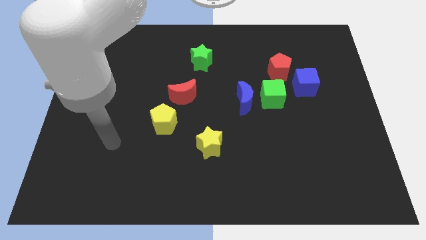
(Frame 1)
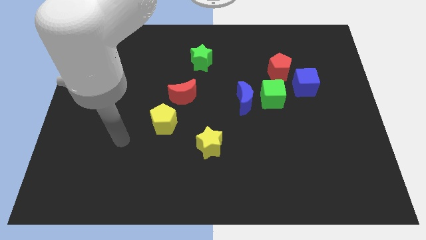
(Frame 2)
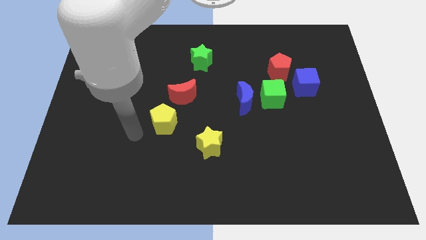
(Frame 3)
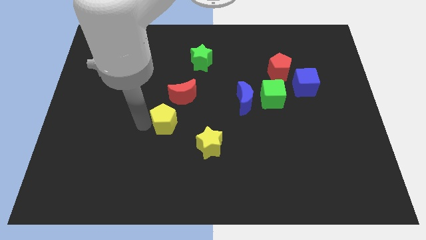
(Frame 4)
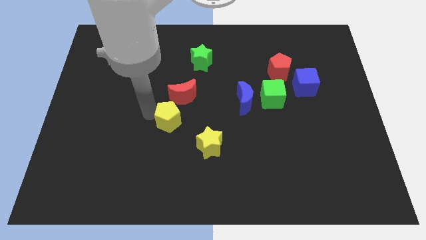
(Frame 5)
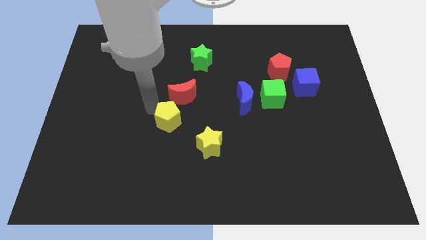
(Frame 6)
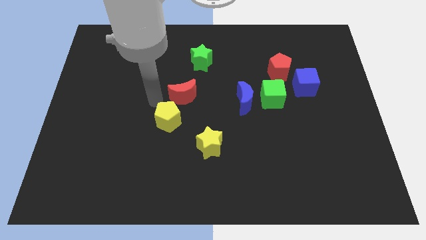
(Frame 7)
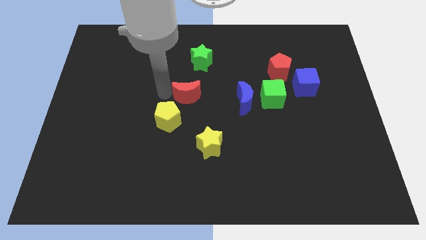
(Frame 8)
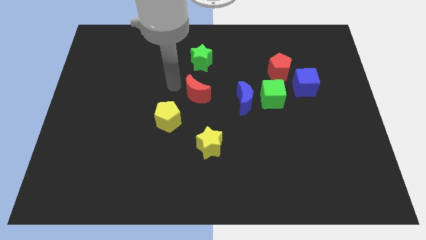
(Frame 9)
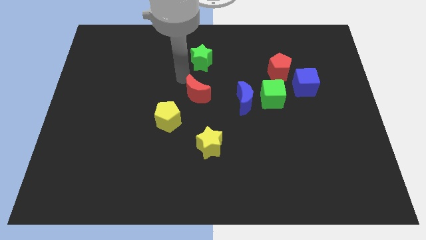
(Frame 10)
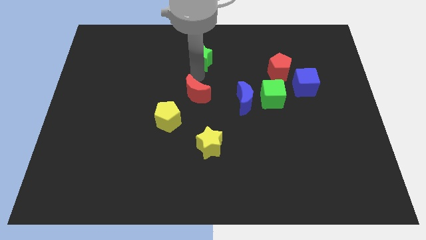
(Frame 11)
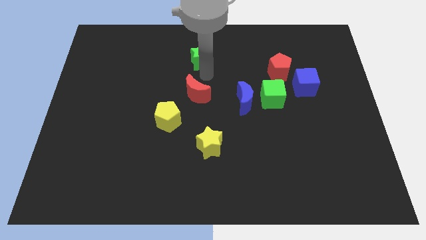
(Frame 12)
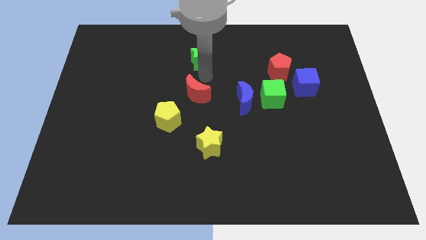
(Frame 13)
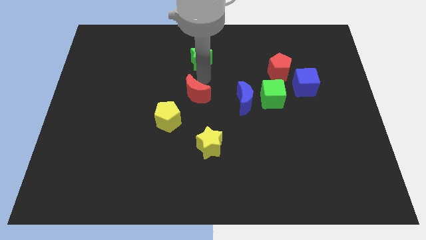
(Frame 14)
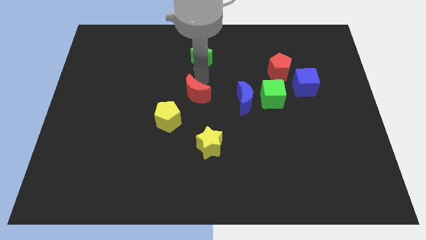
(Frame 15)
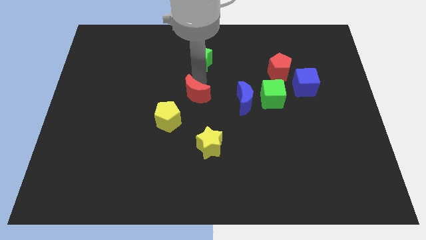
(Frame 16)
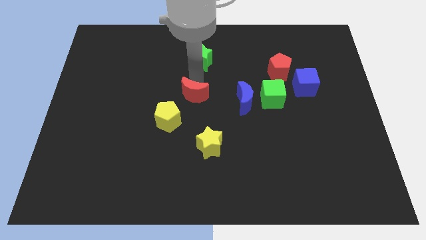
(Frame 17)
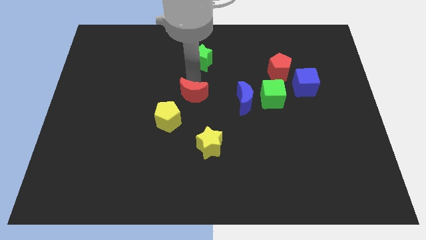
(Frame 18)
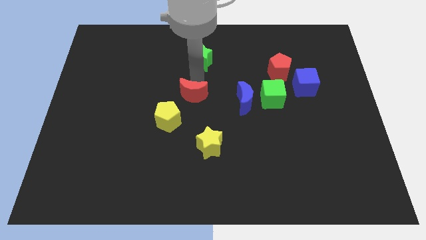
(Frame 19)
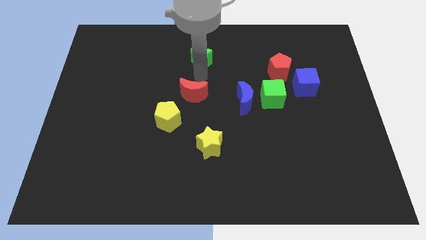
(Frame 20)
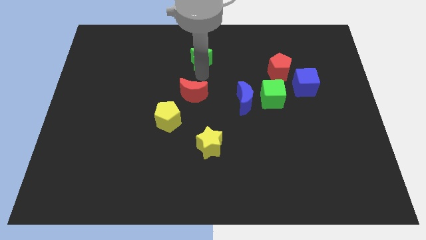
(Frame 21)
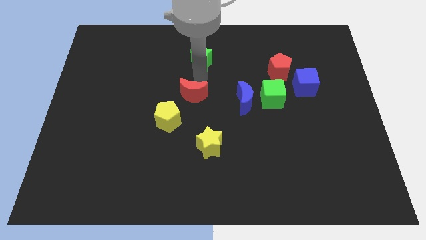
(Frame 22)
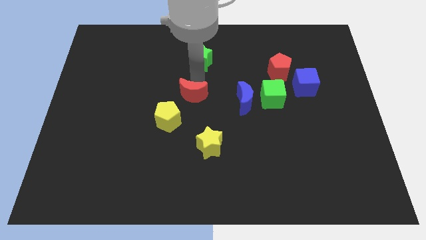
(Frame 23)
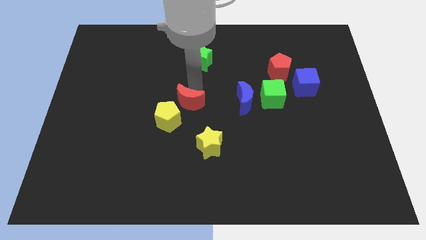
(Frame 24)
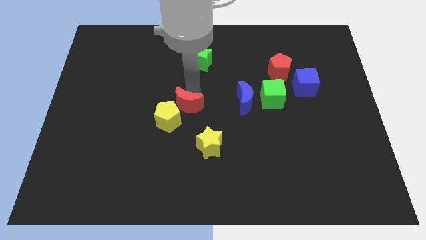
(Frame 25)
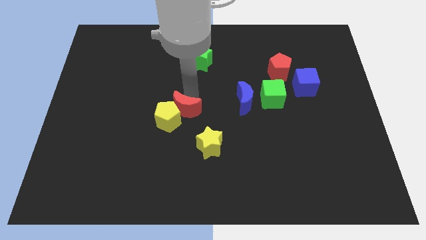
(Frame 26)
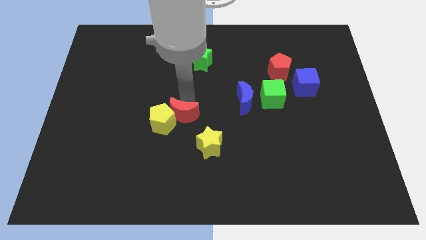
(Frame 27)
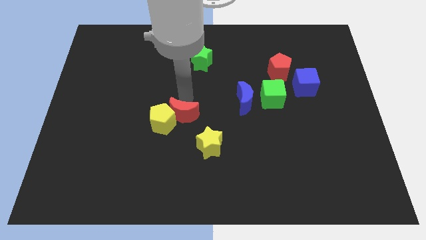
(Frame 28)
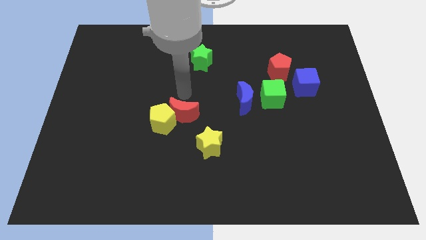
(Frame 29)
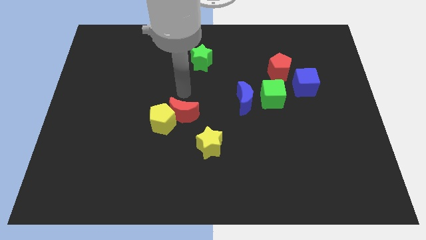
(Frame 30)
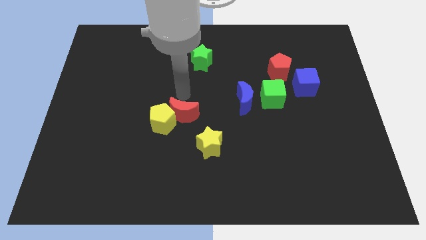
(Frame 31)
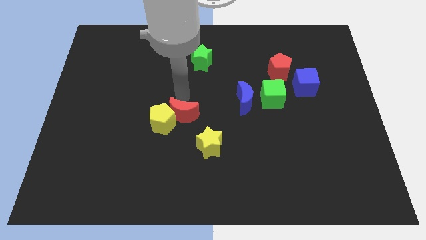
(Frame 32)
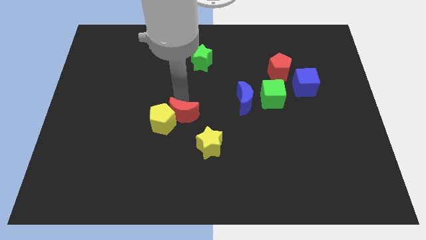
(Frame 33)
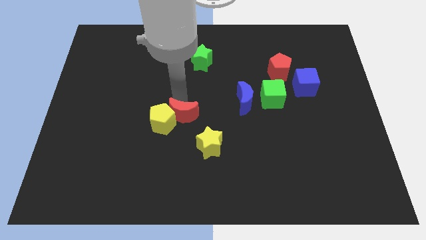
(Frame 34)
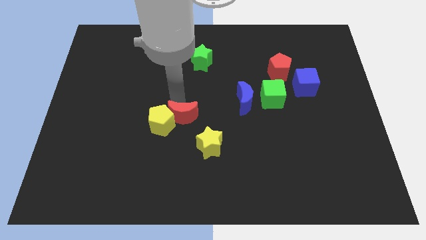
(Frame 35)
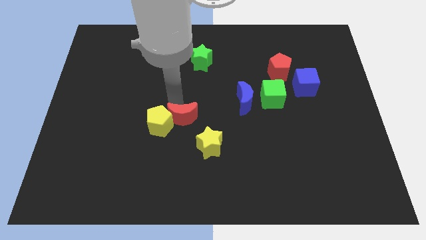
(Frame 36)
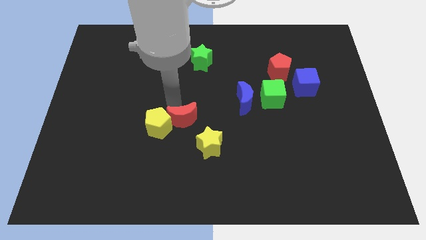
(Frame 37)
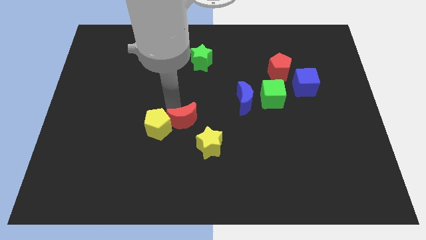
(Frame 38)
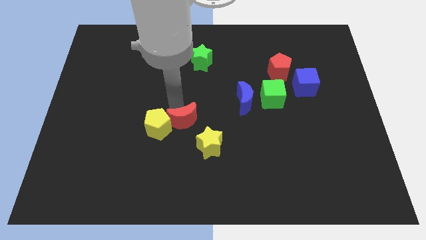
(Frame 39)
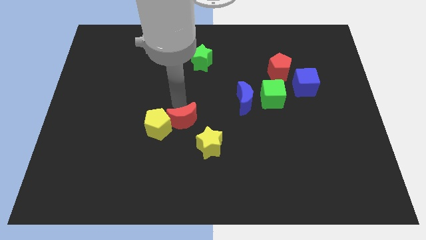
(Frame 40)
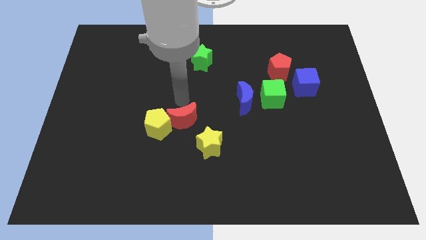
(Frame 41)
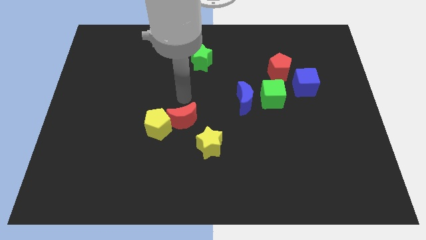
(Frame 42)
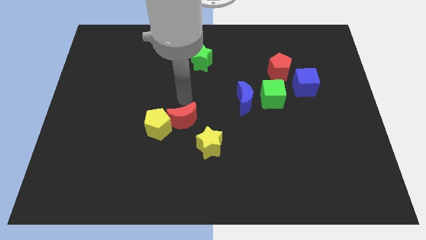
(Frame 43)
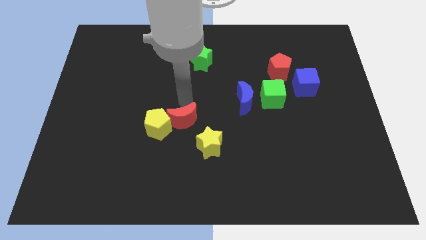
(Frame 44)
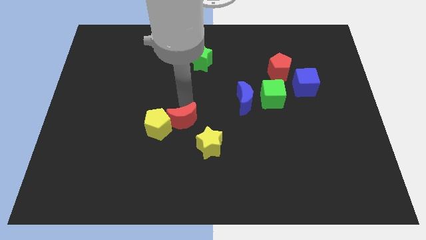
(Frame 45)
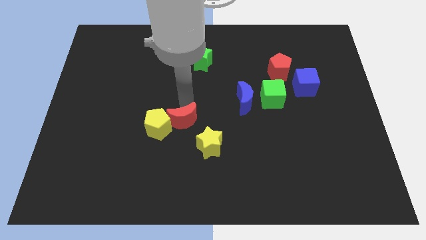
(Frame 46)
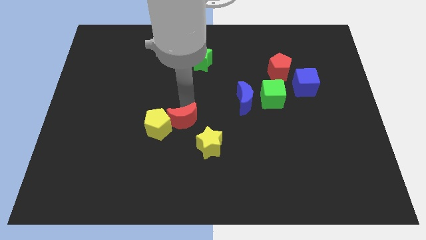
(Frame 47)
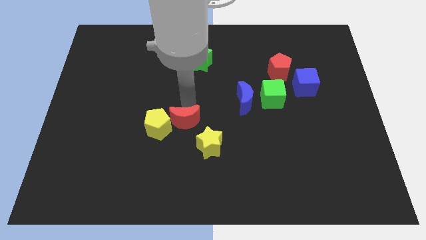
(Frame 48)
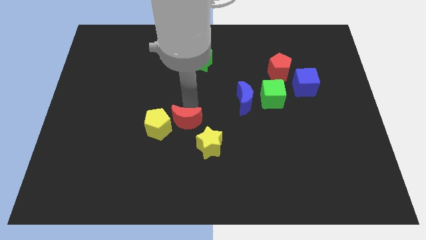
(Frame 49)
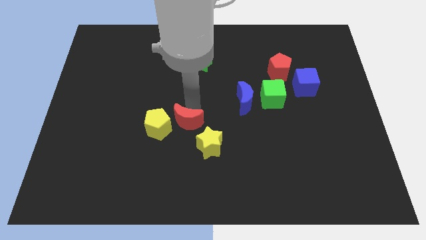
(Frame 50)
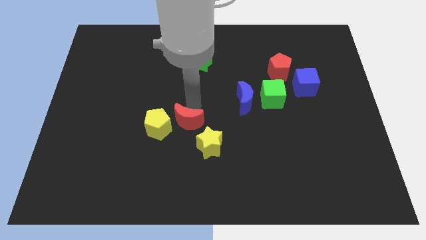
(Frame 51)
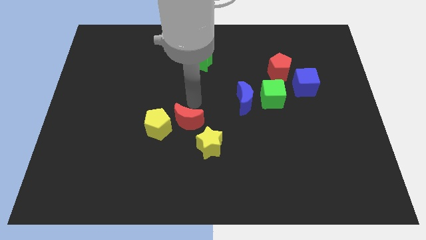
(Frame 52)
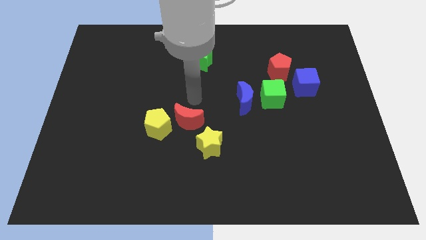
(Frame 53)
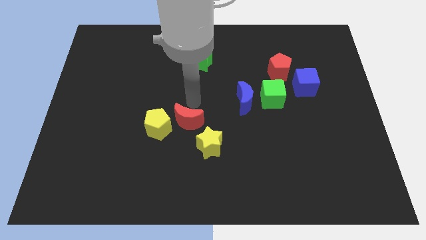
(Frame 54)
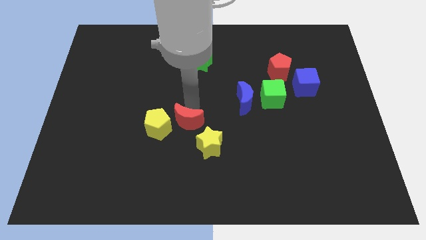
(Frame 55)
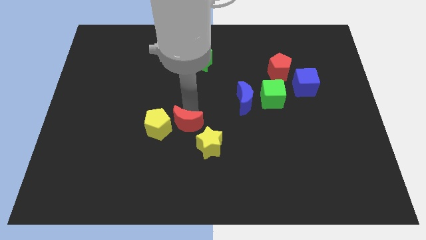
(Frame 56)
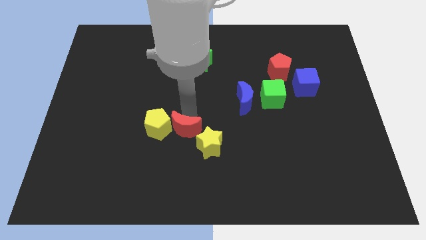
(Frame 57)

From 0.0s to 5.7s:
move the red moon just left of the yellow star

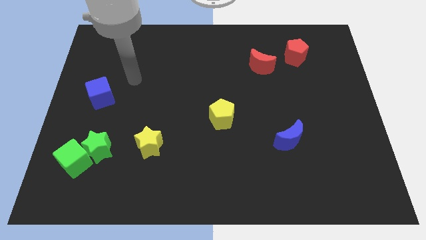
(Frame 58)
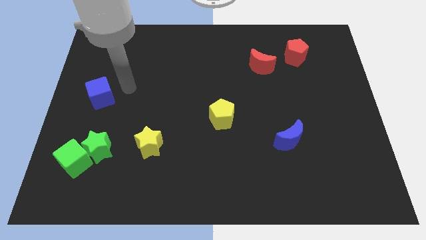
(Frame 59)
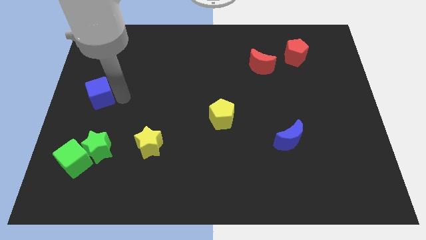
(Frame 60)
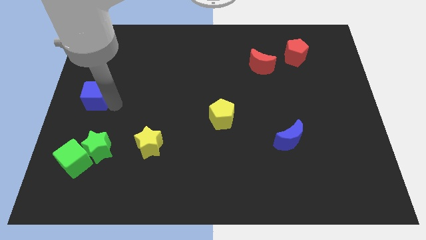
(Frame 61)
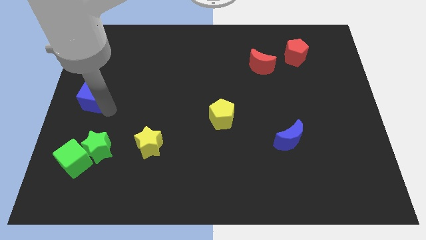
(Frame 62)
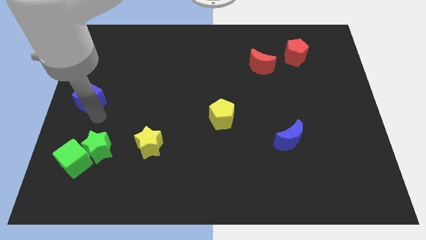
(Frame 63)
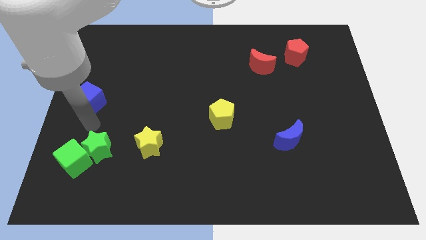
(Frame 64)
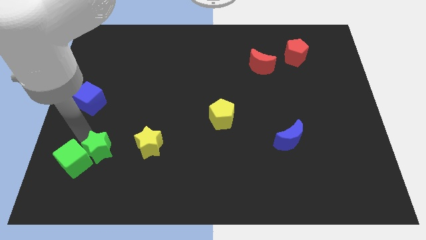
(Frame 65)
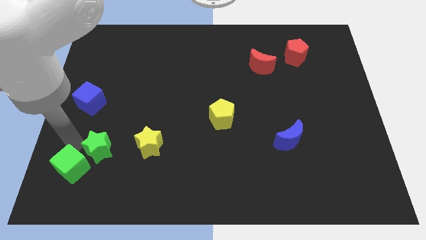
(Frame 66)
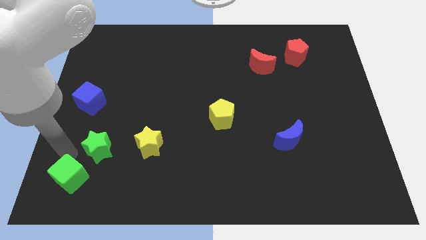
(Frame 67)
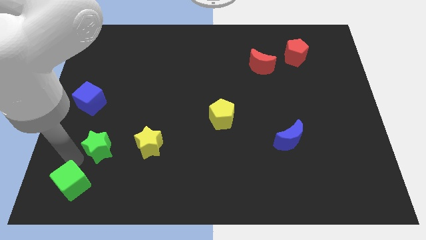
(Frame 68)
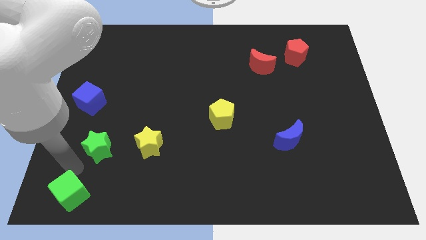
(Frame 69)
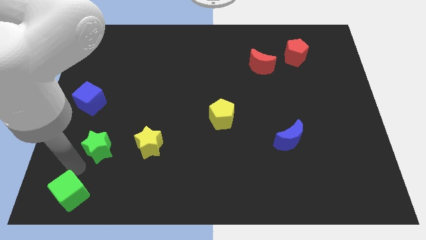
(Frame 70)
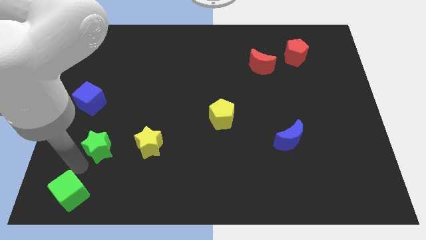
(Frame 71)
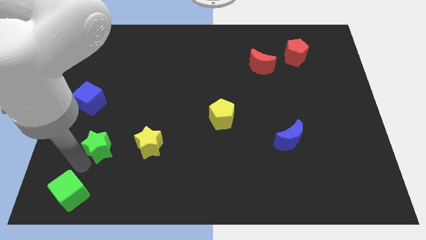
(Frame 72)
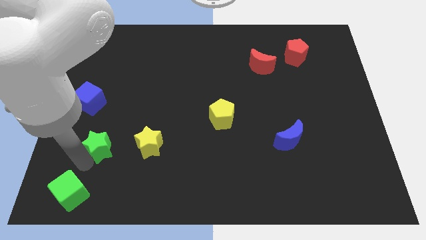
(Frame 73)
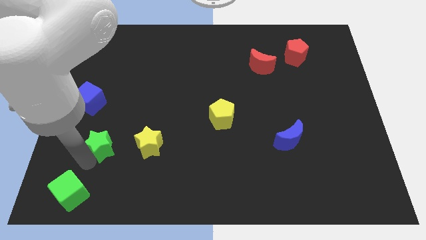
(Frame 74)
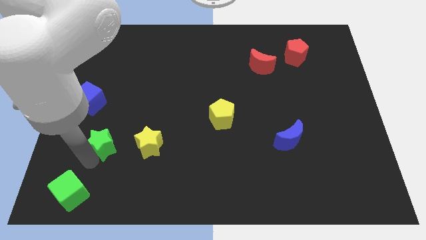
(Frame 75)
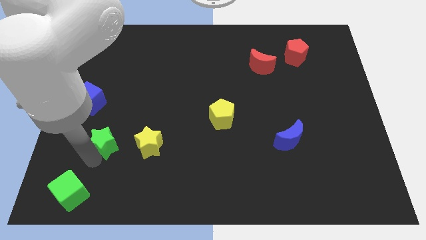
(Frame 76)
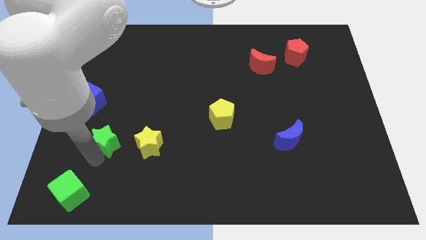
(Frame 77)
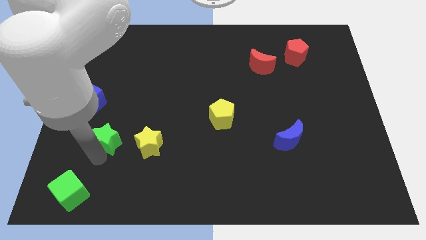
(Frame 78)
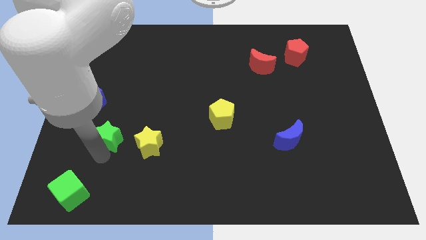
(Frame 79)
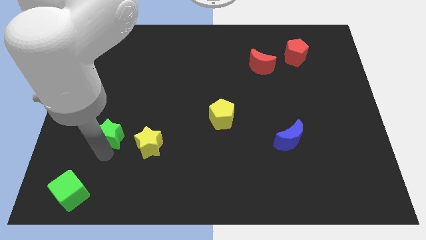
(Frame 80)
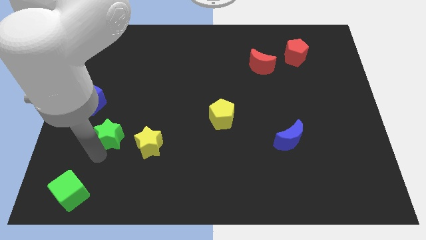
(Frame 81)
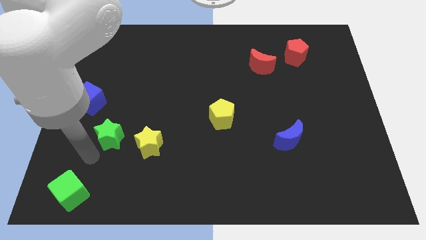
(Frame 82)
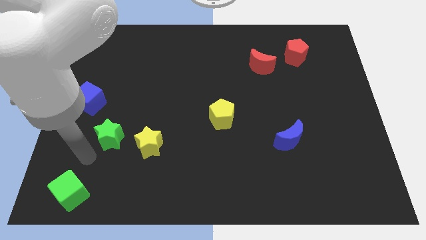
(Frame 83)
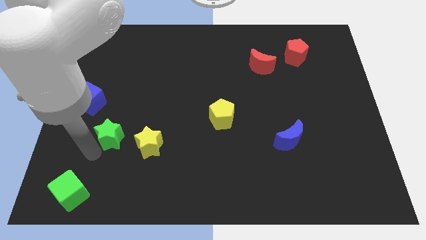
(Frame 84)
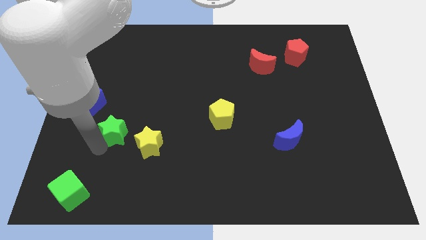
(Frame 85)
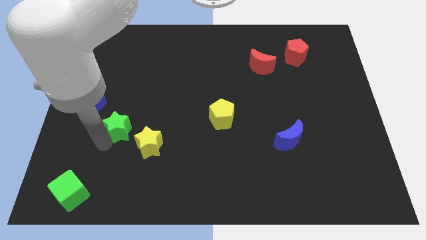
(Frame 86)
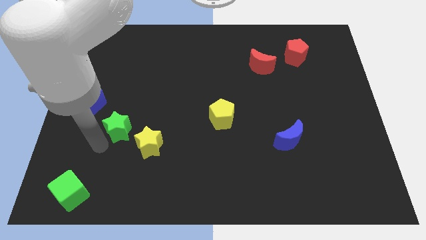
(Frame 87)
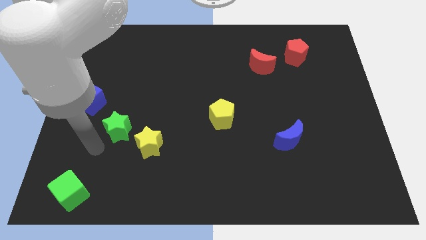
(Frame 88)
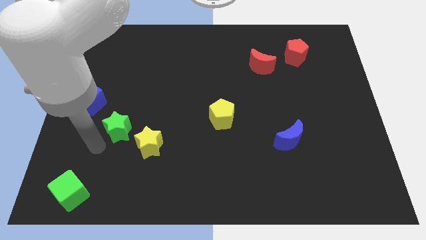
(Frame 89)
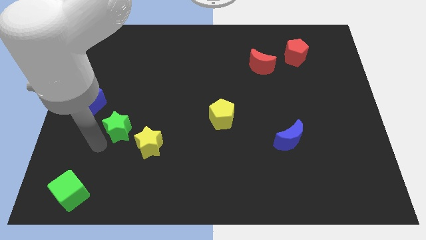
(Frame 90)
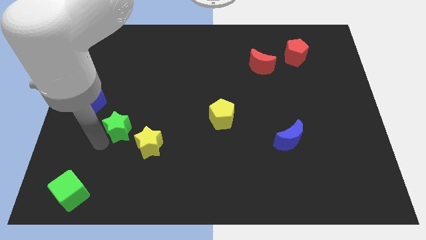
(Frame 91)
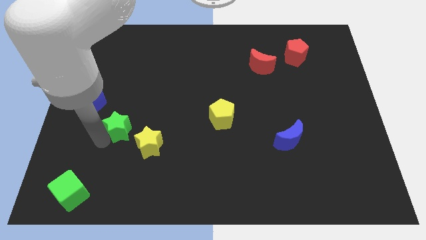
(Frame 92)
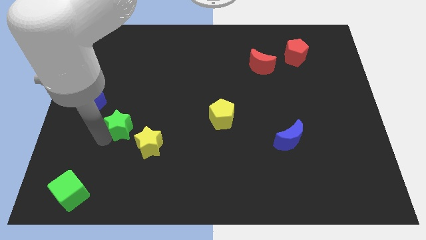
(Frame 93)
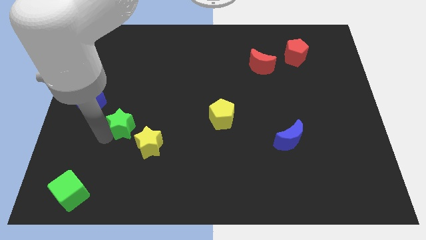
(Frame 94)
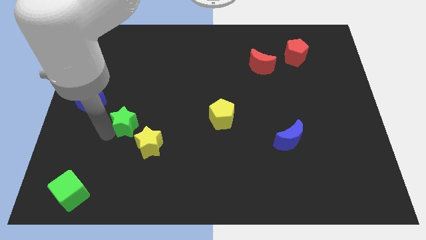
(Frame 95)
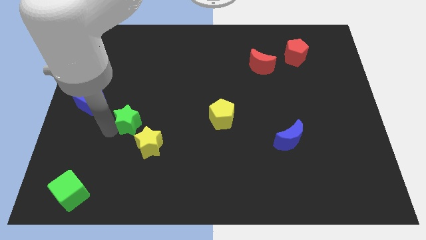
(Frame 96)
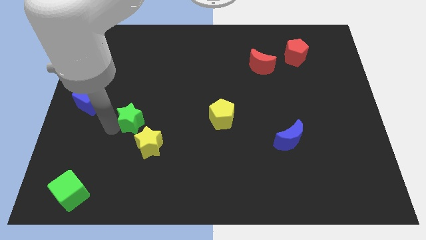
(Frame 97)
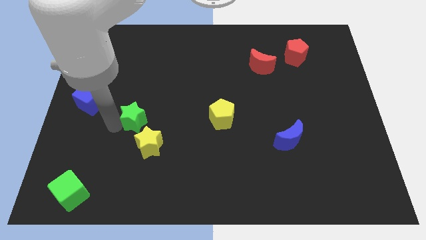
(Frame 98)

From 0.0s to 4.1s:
slide the green star above the yellow star
